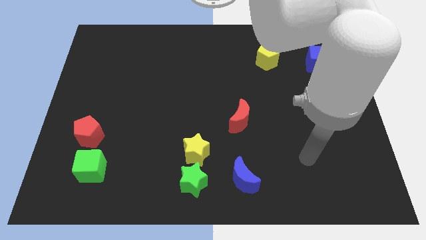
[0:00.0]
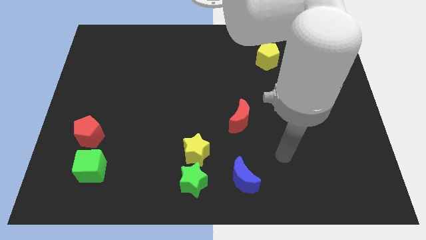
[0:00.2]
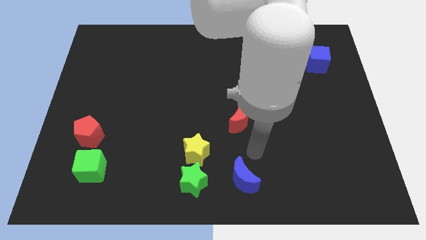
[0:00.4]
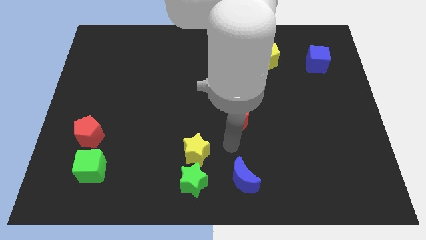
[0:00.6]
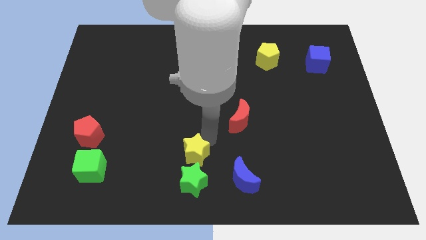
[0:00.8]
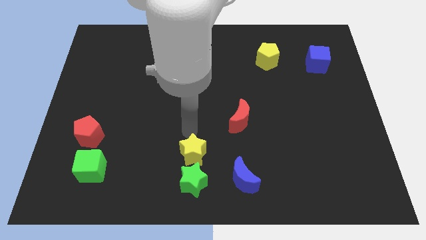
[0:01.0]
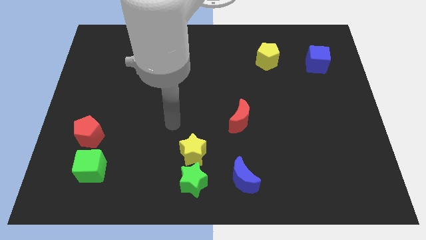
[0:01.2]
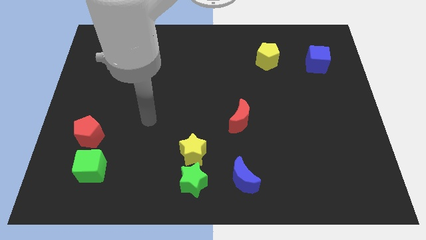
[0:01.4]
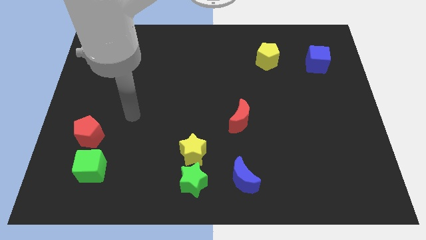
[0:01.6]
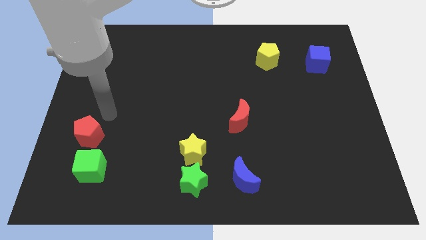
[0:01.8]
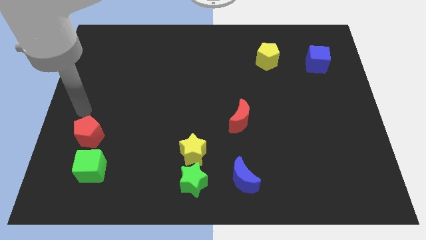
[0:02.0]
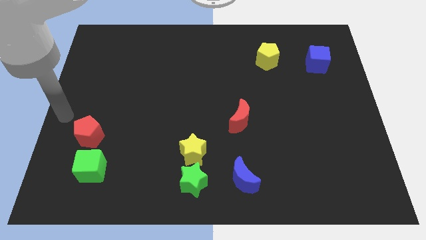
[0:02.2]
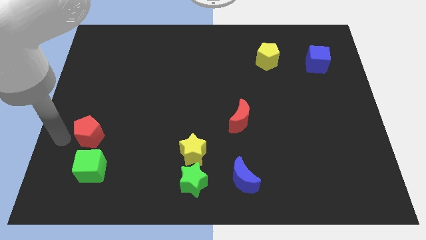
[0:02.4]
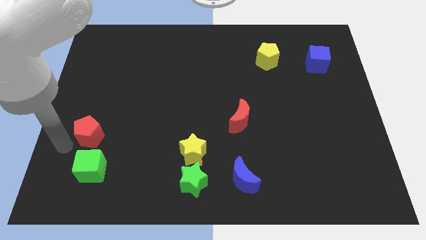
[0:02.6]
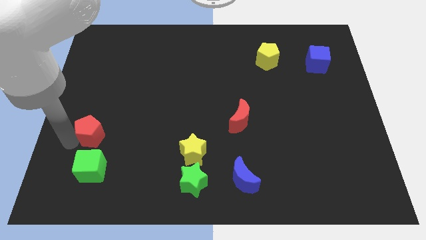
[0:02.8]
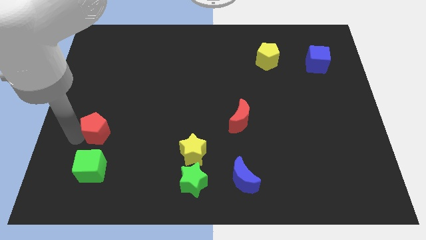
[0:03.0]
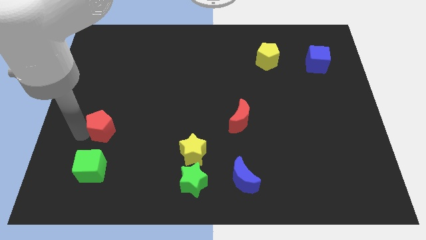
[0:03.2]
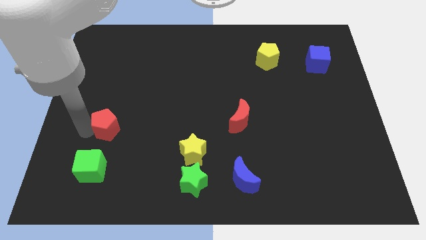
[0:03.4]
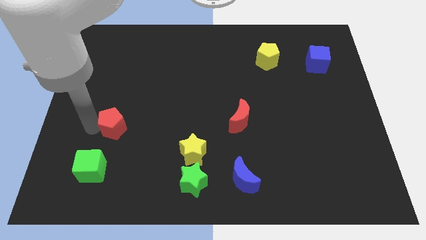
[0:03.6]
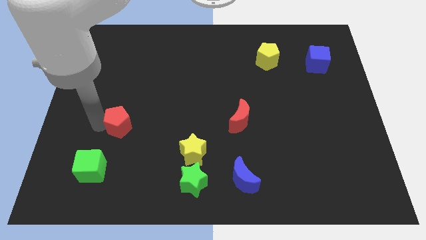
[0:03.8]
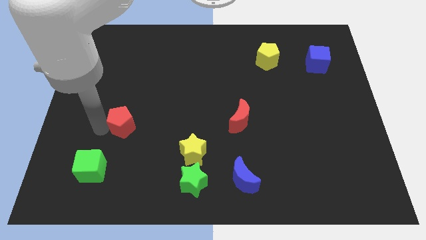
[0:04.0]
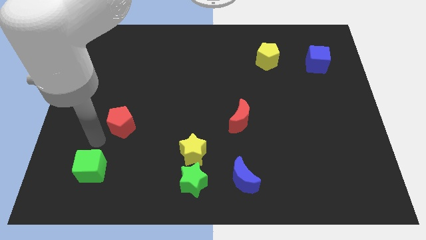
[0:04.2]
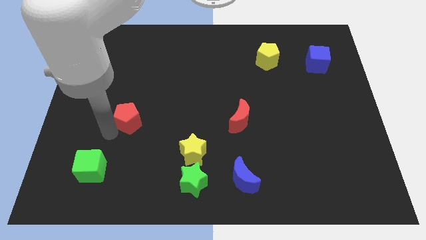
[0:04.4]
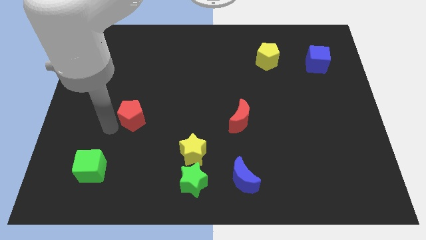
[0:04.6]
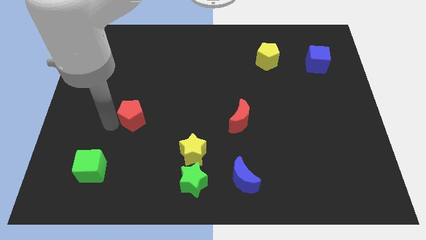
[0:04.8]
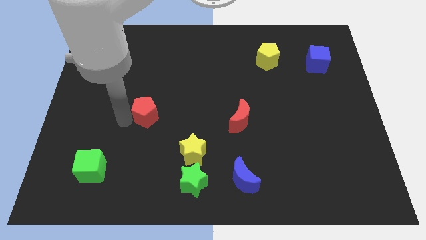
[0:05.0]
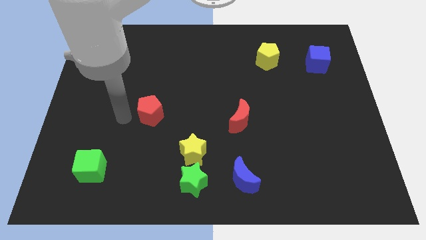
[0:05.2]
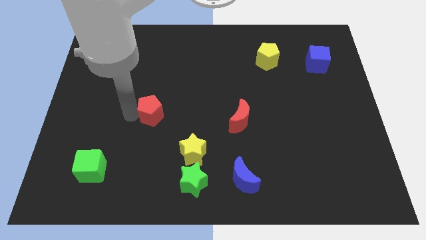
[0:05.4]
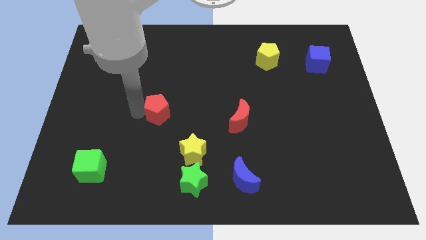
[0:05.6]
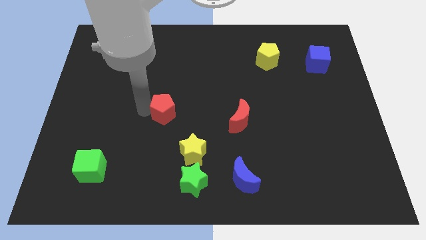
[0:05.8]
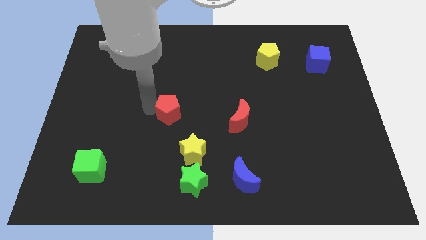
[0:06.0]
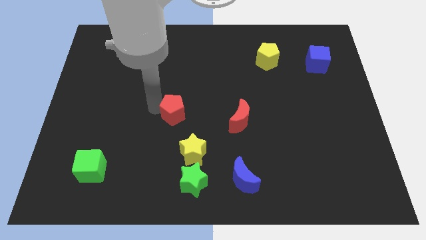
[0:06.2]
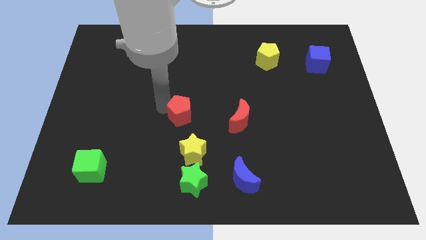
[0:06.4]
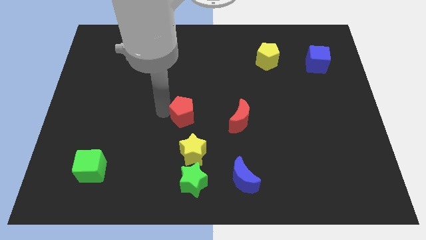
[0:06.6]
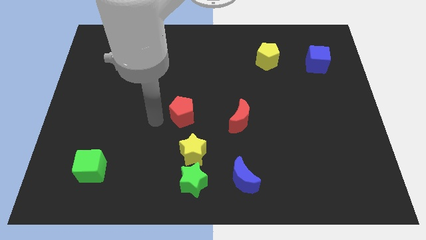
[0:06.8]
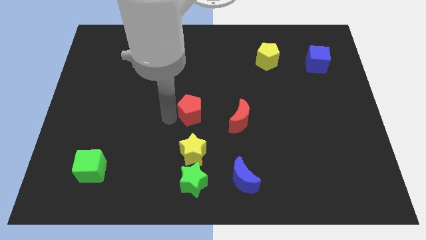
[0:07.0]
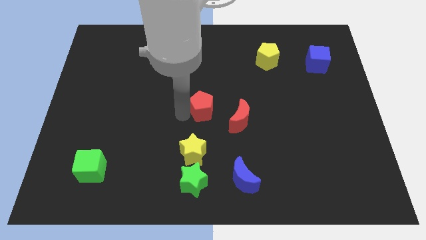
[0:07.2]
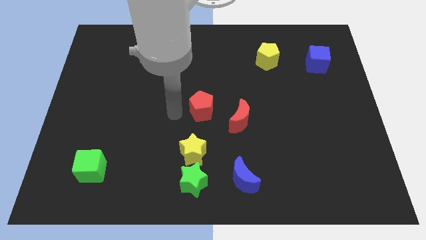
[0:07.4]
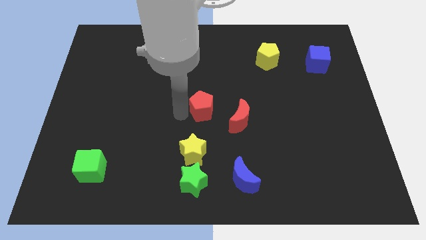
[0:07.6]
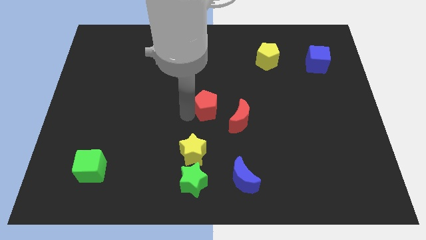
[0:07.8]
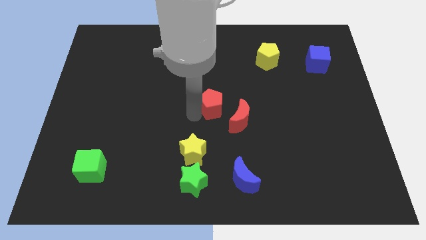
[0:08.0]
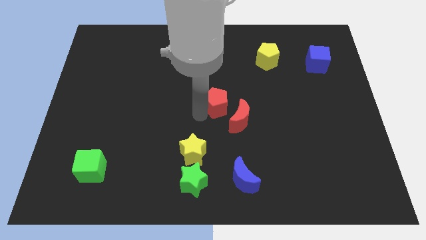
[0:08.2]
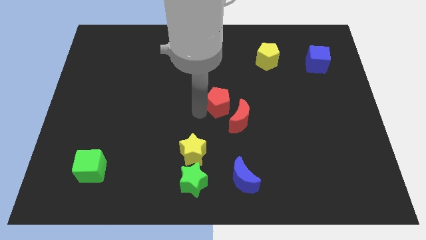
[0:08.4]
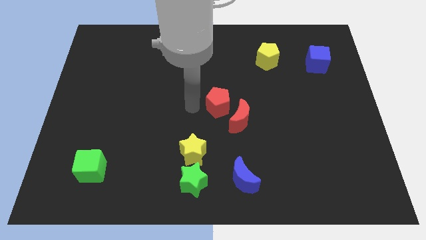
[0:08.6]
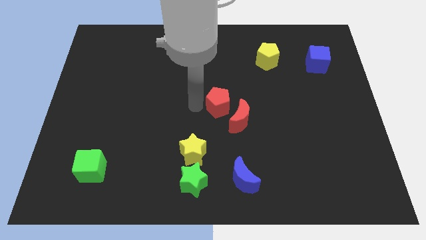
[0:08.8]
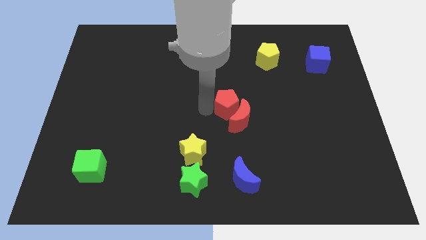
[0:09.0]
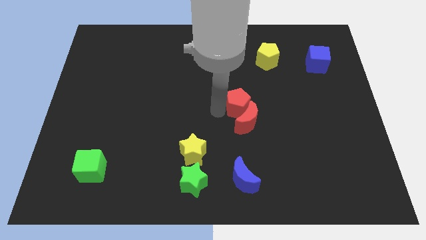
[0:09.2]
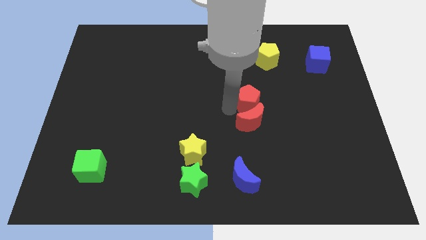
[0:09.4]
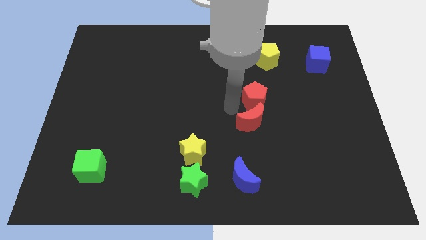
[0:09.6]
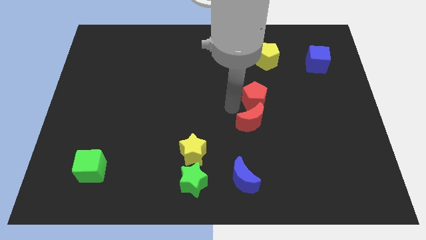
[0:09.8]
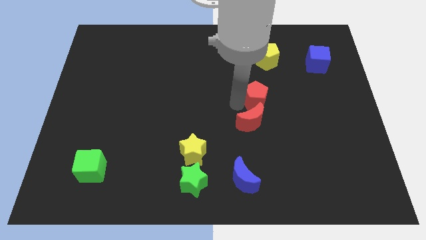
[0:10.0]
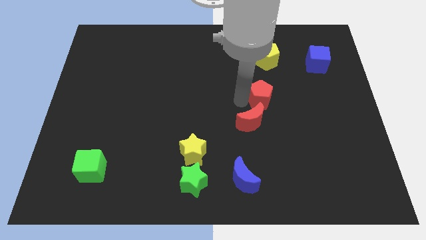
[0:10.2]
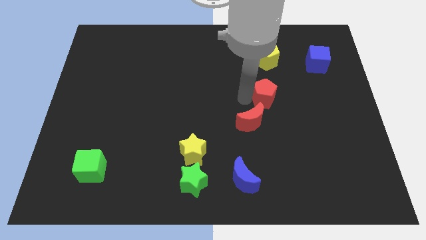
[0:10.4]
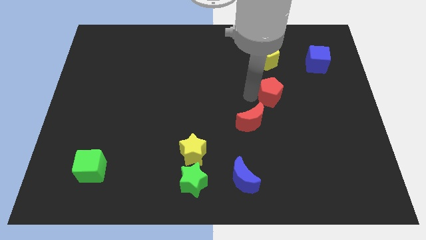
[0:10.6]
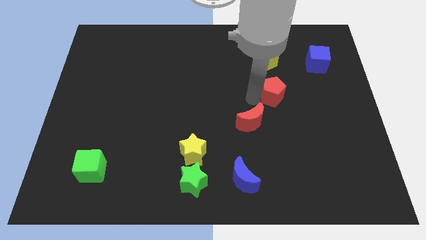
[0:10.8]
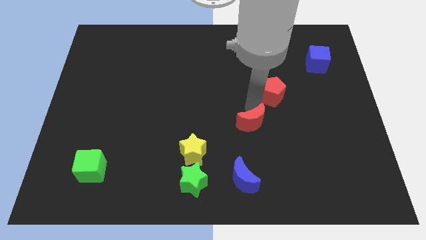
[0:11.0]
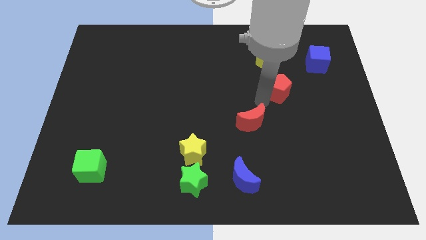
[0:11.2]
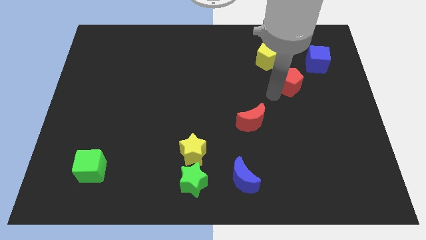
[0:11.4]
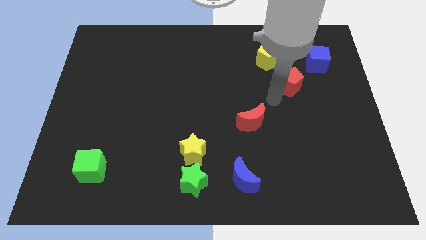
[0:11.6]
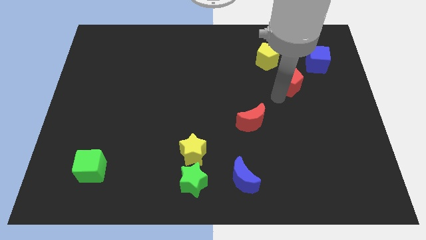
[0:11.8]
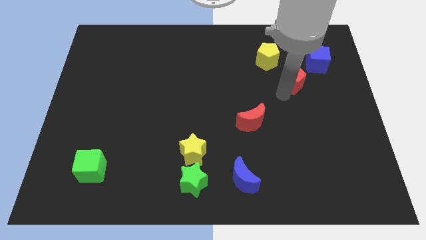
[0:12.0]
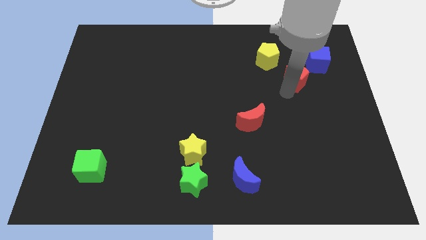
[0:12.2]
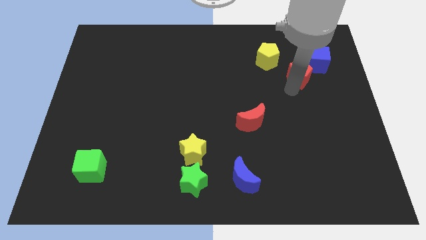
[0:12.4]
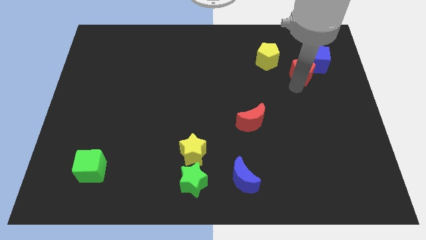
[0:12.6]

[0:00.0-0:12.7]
push the red pentagon close to the blue cube
